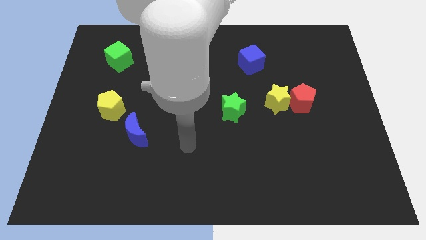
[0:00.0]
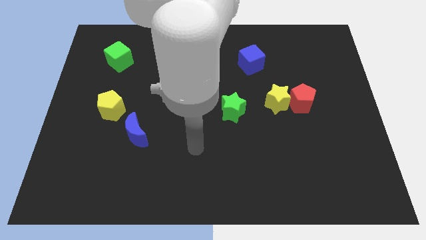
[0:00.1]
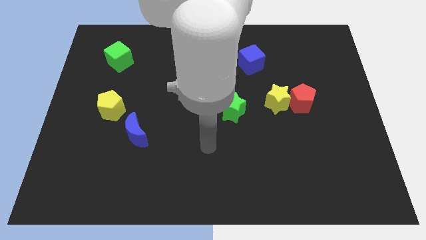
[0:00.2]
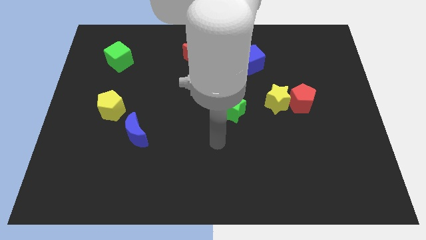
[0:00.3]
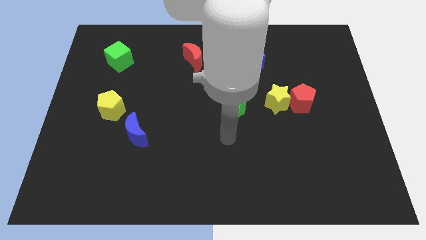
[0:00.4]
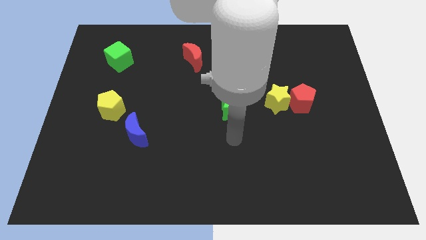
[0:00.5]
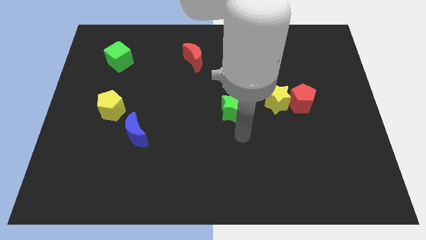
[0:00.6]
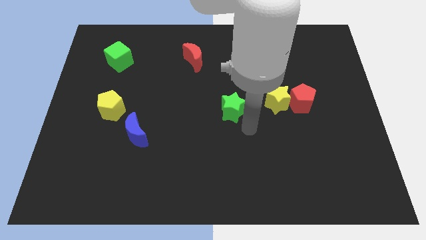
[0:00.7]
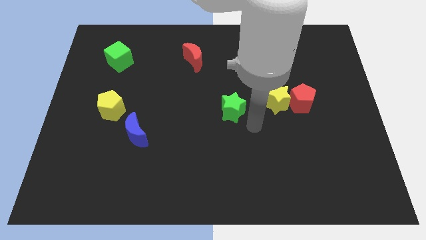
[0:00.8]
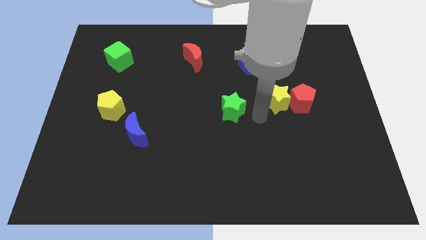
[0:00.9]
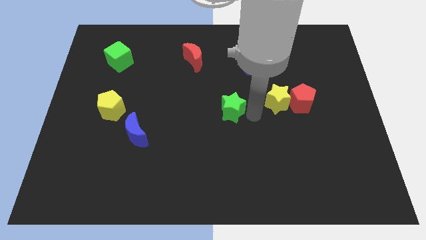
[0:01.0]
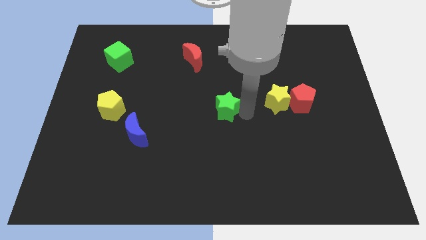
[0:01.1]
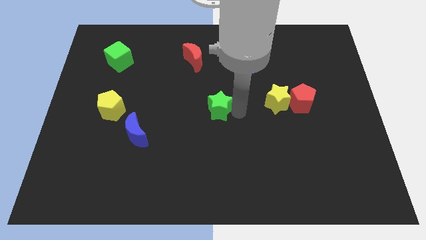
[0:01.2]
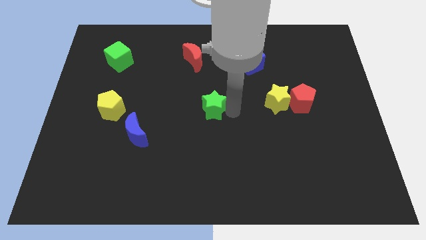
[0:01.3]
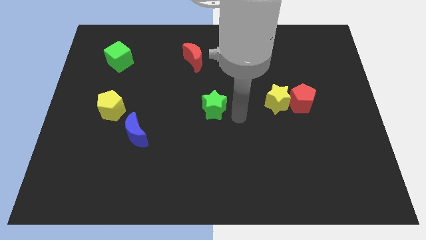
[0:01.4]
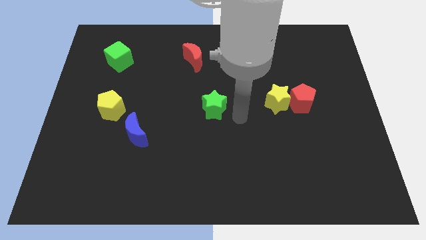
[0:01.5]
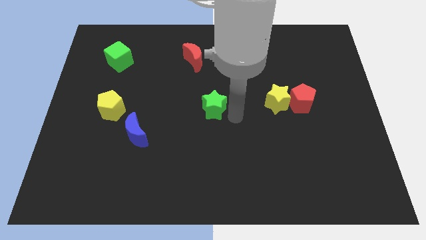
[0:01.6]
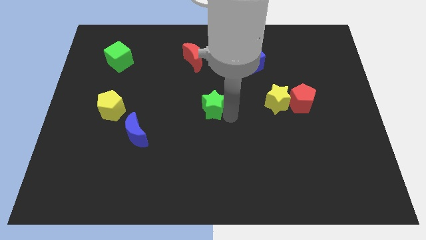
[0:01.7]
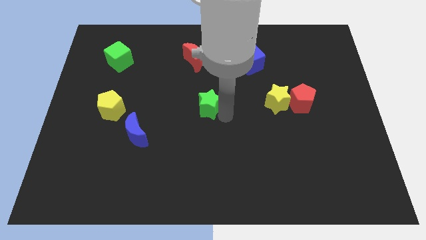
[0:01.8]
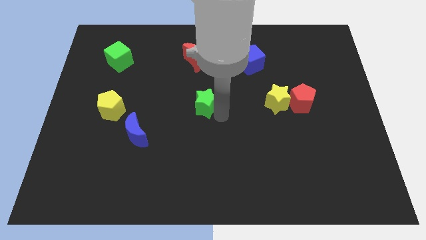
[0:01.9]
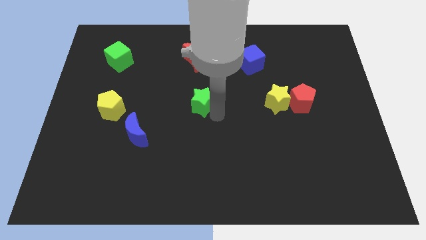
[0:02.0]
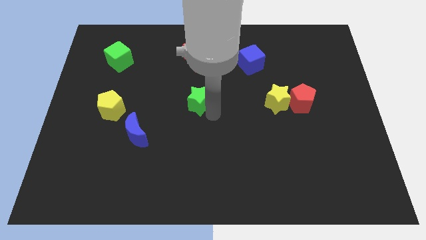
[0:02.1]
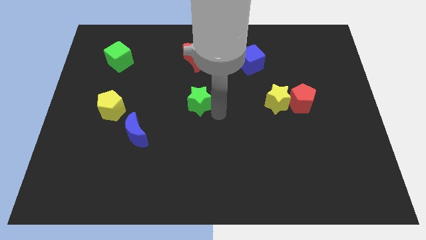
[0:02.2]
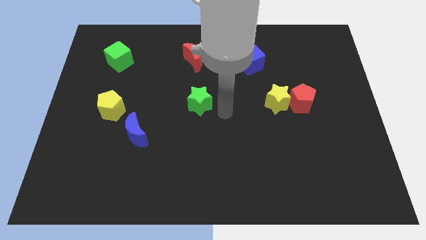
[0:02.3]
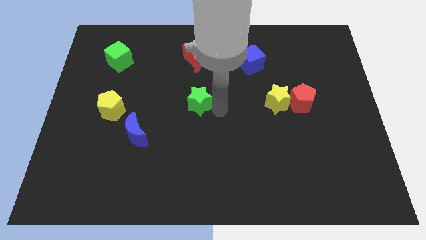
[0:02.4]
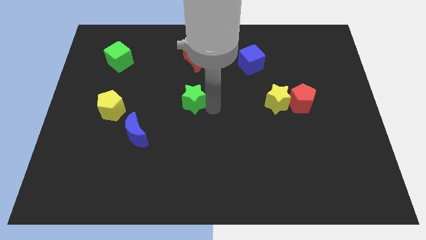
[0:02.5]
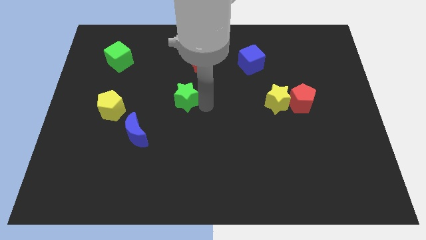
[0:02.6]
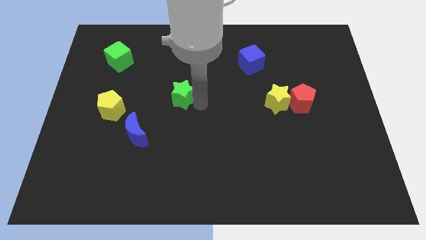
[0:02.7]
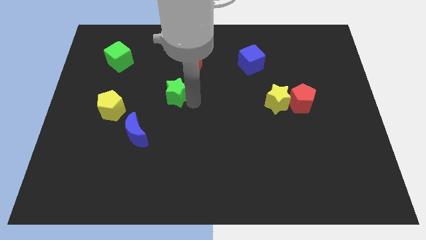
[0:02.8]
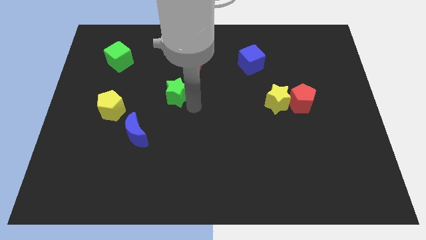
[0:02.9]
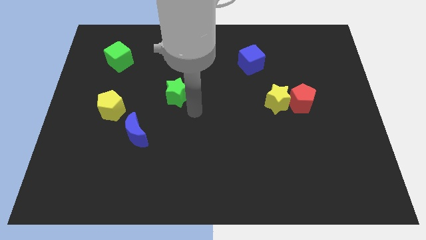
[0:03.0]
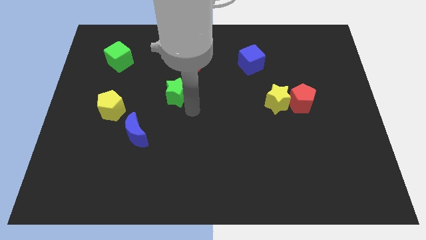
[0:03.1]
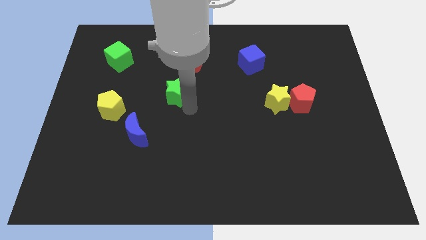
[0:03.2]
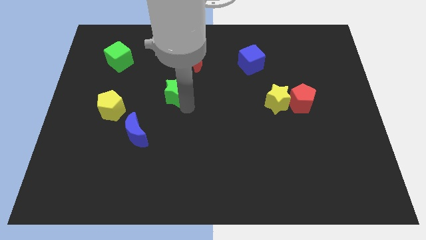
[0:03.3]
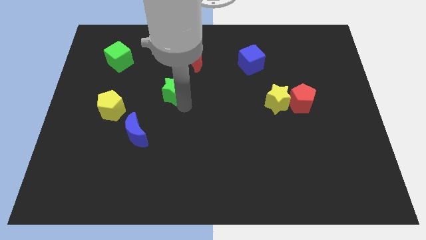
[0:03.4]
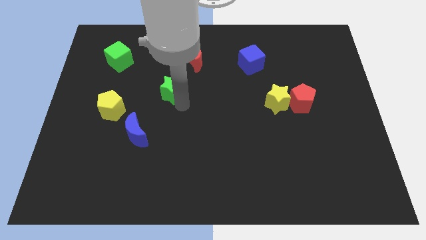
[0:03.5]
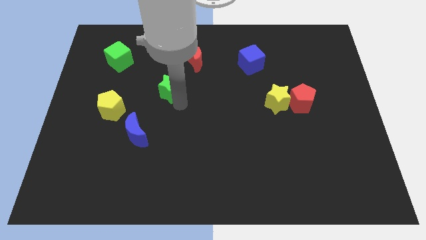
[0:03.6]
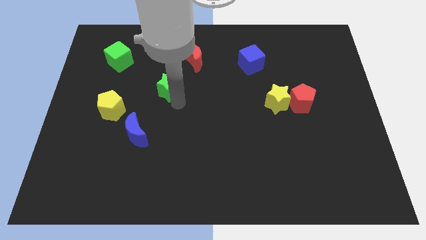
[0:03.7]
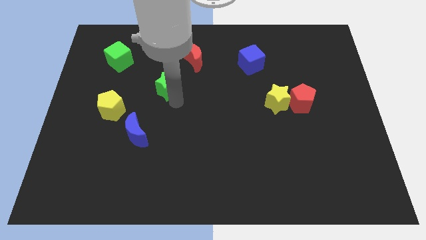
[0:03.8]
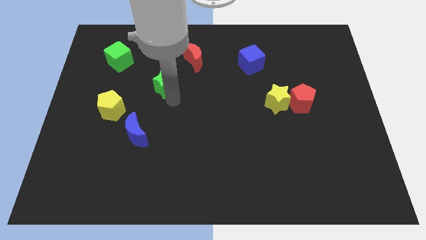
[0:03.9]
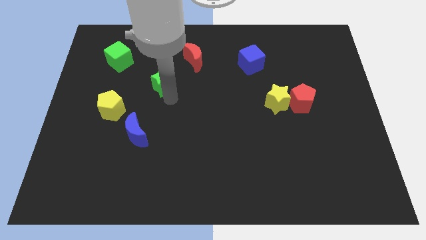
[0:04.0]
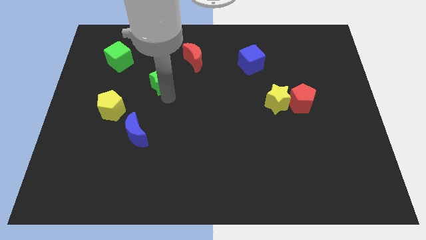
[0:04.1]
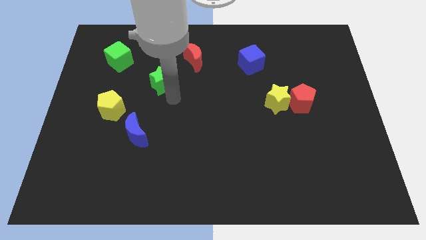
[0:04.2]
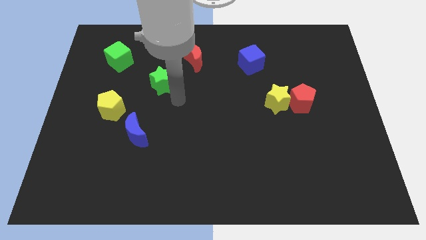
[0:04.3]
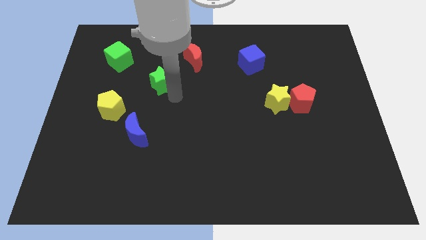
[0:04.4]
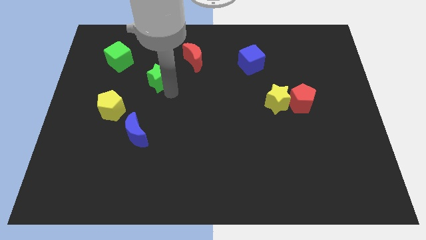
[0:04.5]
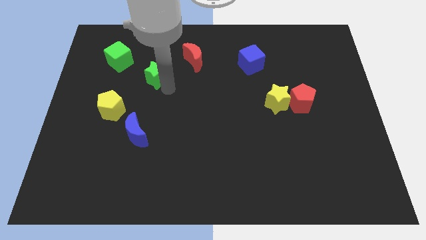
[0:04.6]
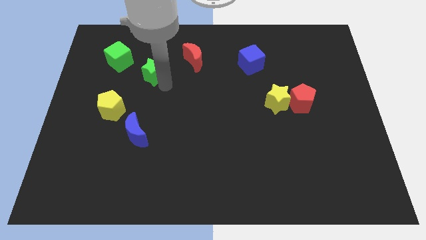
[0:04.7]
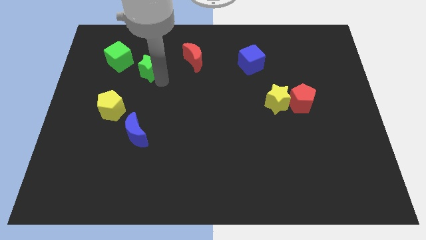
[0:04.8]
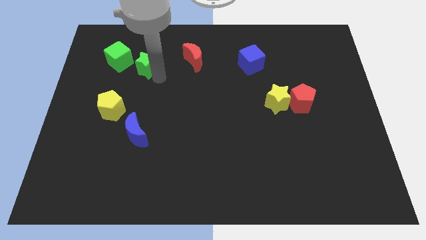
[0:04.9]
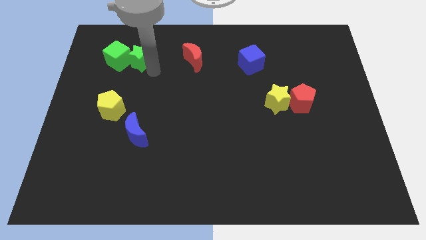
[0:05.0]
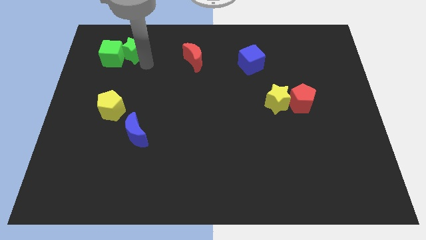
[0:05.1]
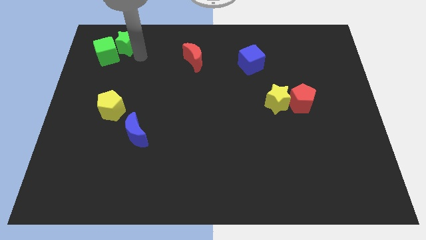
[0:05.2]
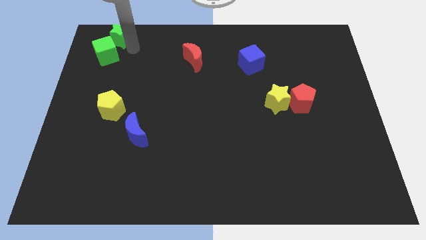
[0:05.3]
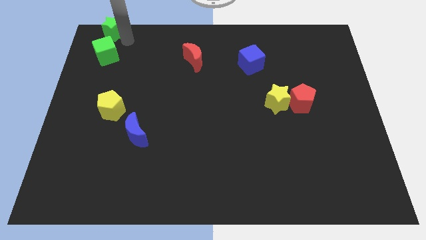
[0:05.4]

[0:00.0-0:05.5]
slide the green star to the top left of the board

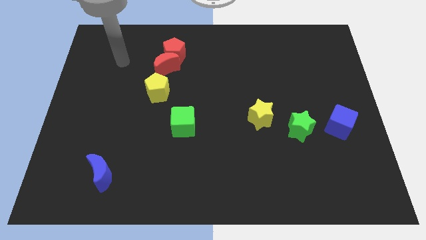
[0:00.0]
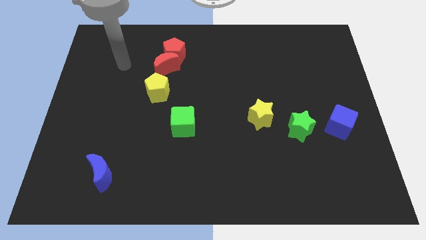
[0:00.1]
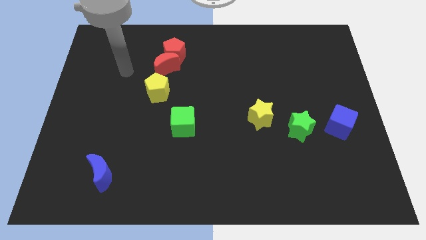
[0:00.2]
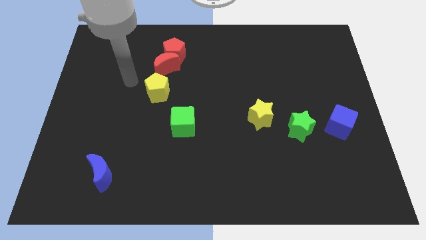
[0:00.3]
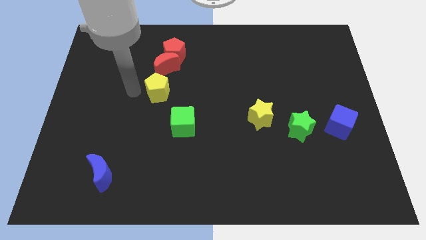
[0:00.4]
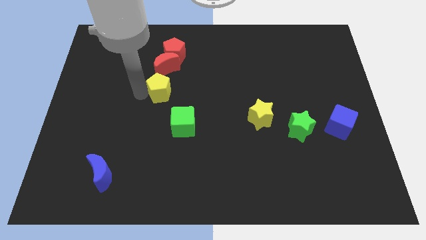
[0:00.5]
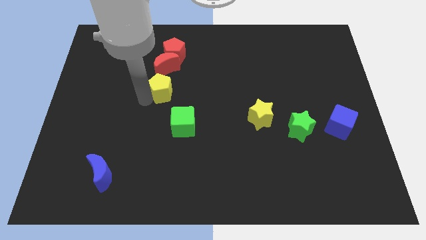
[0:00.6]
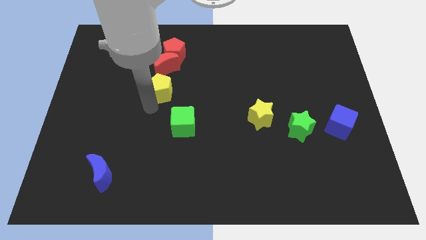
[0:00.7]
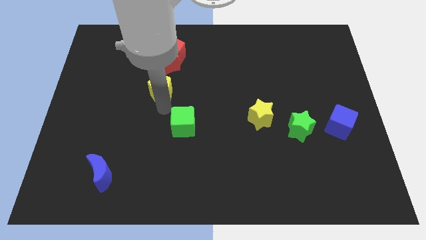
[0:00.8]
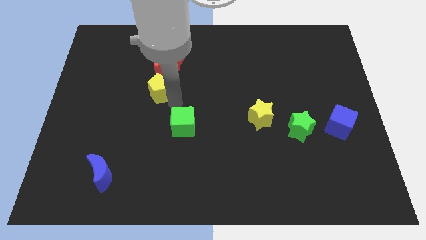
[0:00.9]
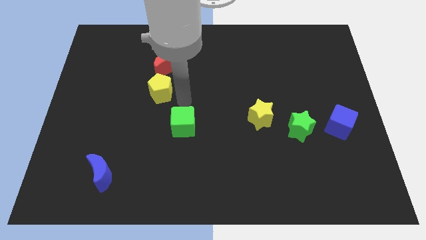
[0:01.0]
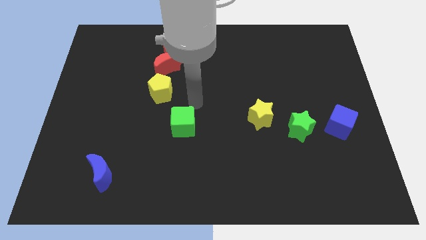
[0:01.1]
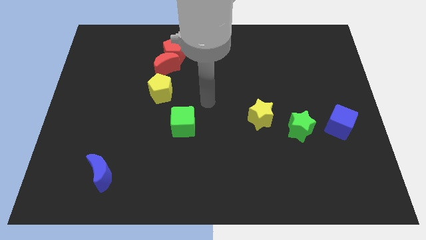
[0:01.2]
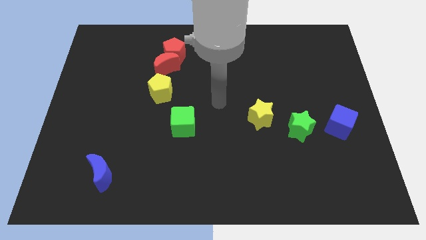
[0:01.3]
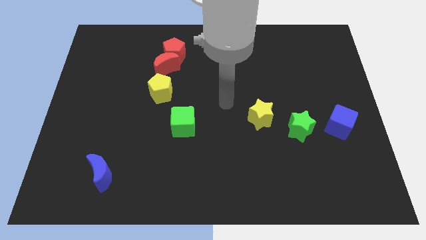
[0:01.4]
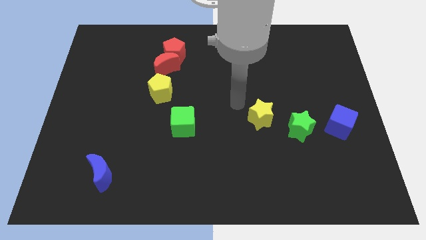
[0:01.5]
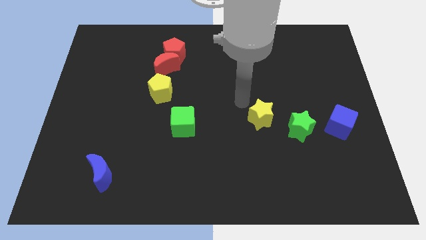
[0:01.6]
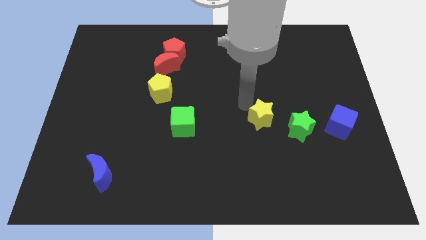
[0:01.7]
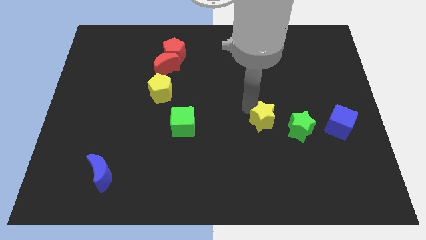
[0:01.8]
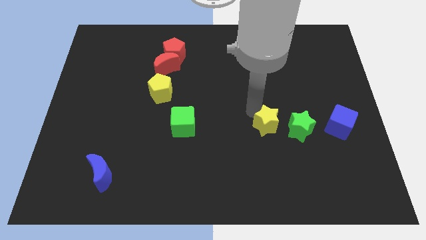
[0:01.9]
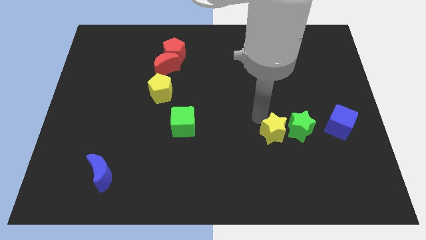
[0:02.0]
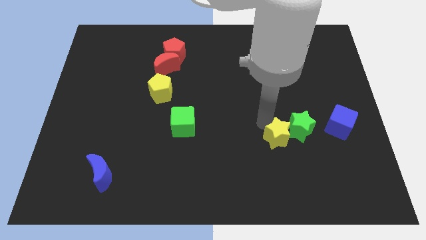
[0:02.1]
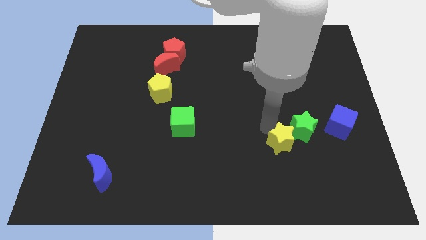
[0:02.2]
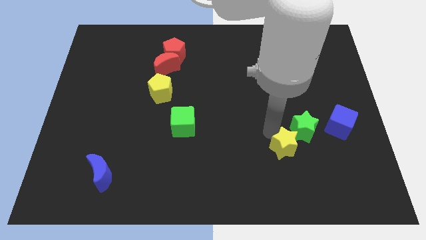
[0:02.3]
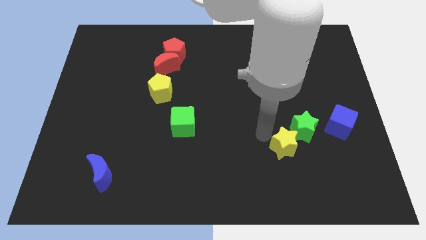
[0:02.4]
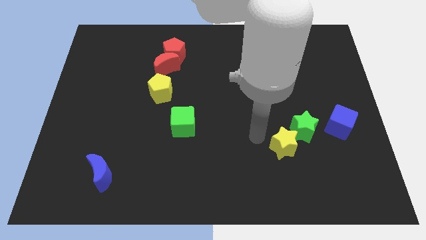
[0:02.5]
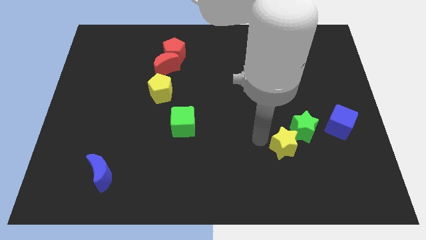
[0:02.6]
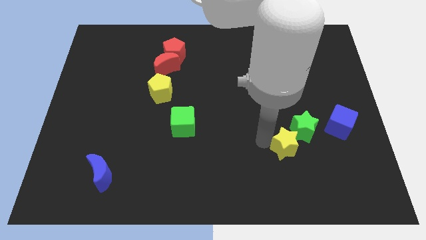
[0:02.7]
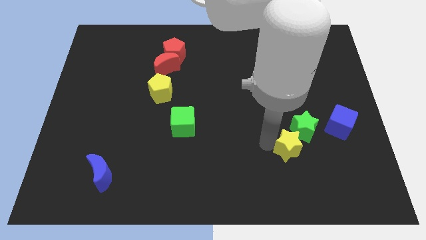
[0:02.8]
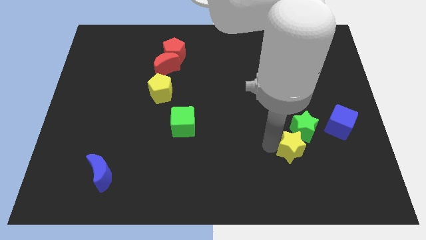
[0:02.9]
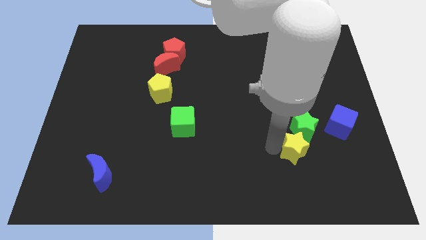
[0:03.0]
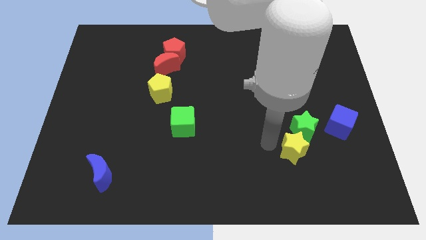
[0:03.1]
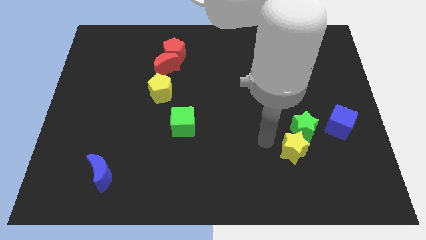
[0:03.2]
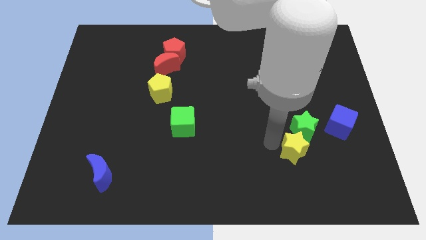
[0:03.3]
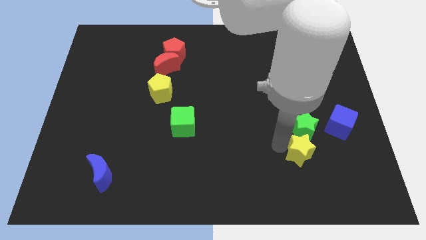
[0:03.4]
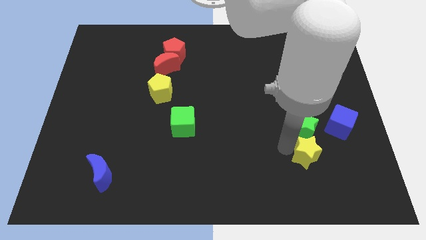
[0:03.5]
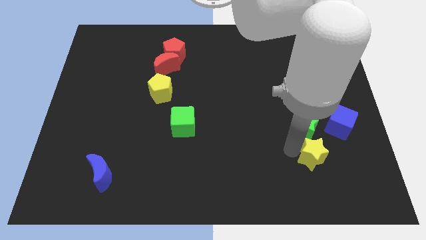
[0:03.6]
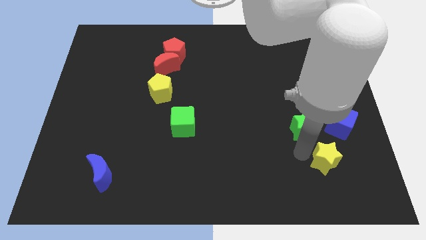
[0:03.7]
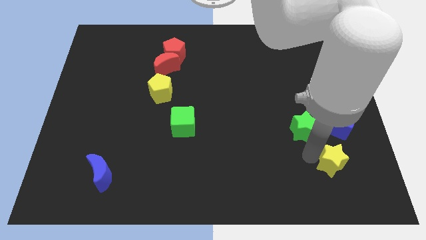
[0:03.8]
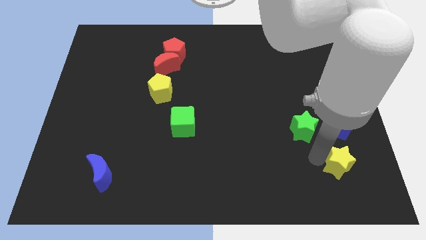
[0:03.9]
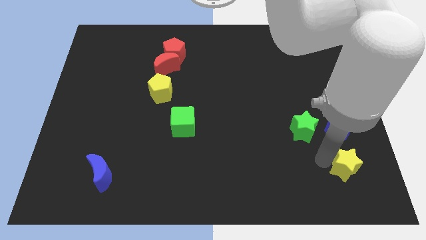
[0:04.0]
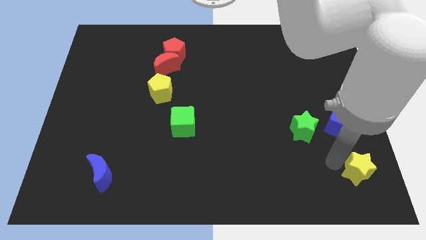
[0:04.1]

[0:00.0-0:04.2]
slide the yellow star to the lower right corner
